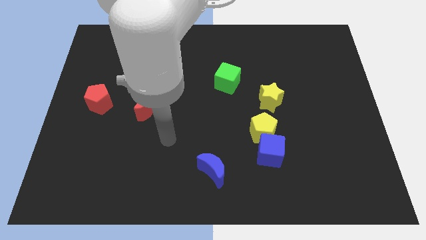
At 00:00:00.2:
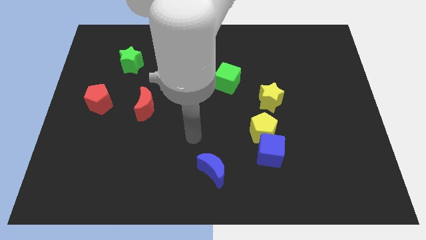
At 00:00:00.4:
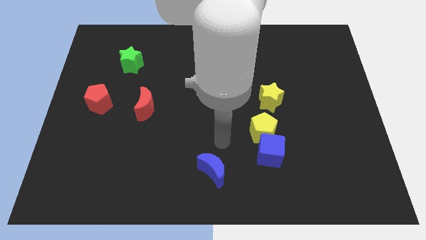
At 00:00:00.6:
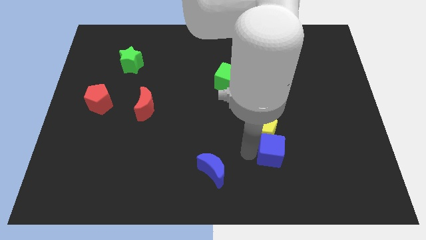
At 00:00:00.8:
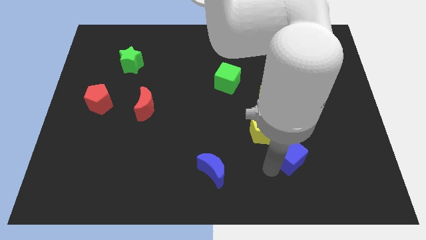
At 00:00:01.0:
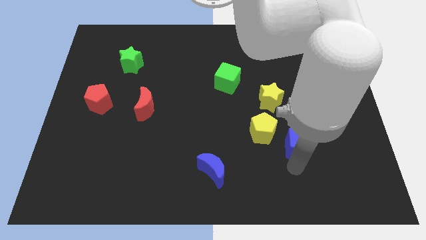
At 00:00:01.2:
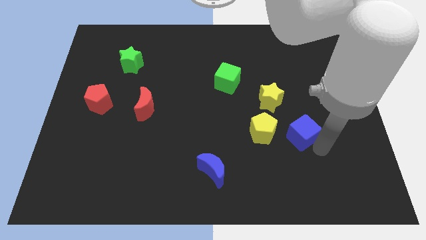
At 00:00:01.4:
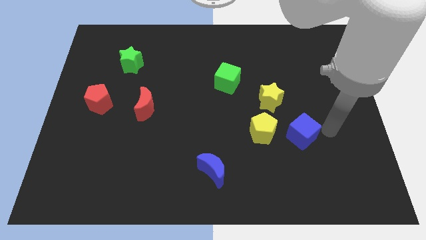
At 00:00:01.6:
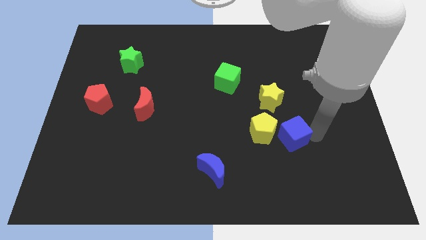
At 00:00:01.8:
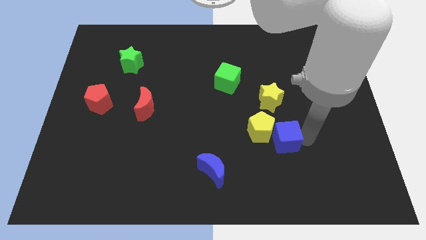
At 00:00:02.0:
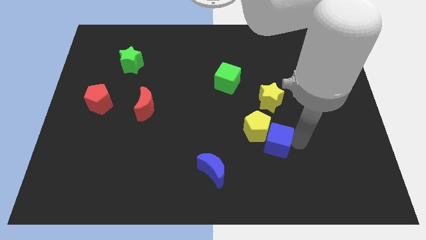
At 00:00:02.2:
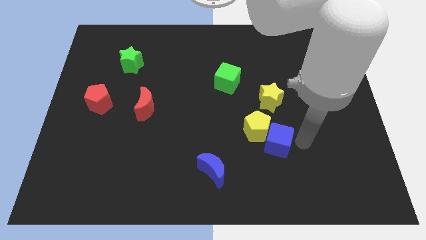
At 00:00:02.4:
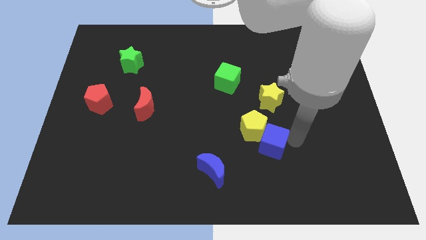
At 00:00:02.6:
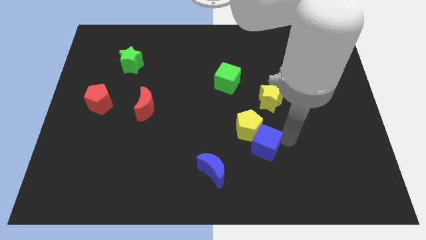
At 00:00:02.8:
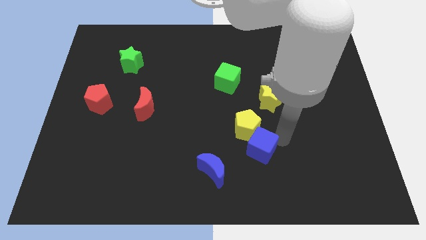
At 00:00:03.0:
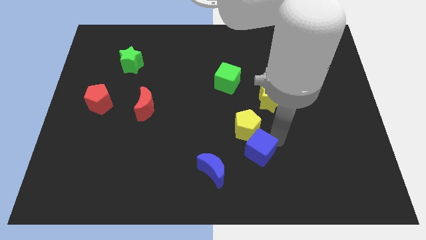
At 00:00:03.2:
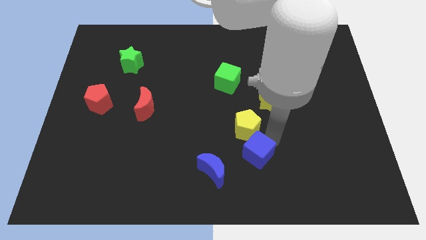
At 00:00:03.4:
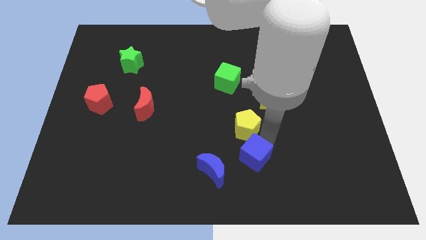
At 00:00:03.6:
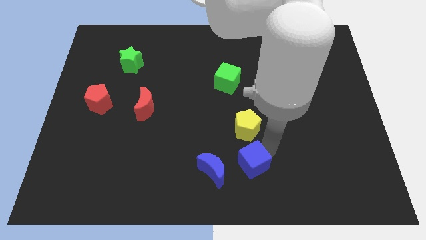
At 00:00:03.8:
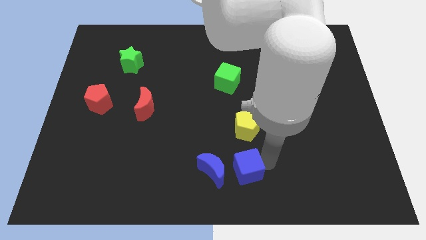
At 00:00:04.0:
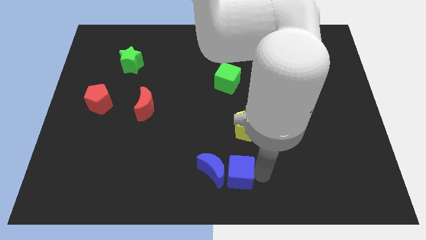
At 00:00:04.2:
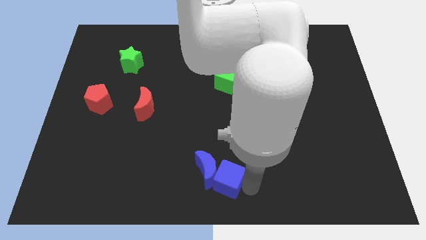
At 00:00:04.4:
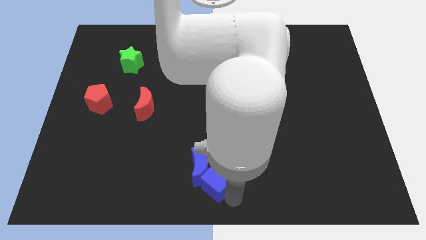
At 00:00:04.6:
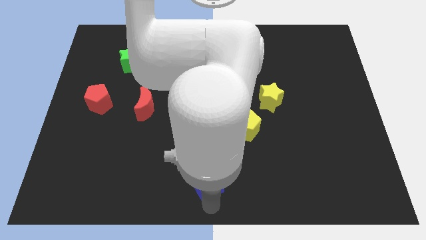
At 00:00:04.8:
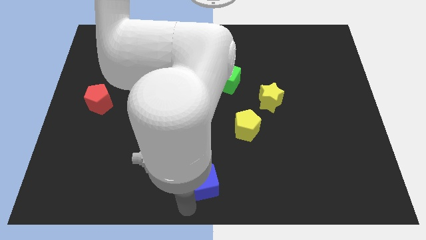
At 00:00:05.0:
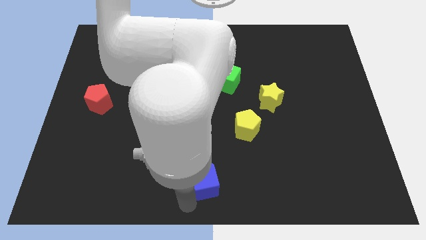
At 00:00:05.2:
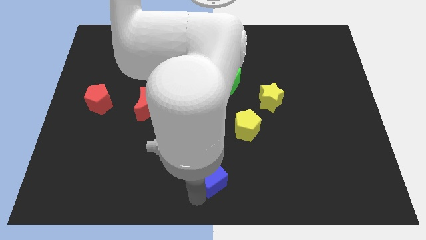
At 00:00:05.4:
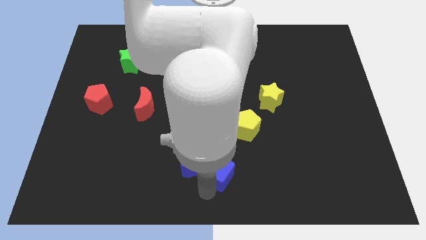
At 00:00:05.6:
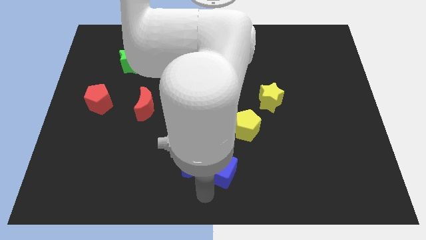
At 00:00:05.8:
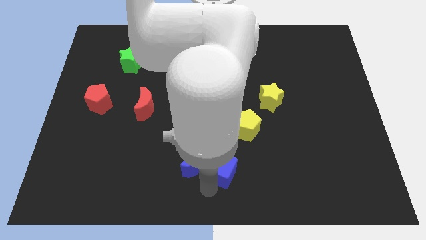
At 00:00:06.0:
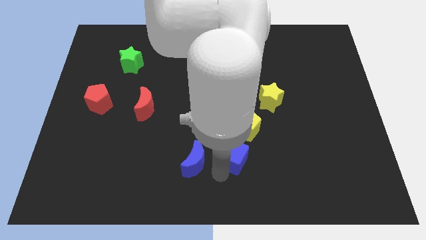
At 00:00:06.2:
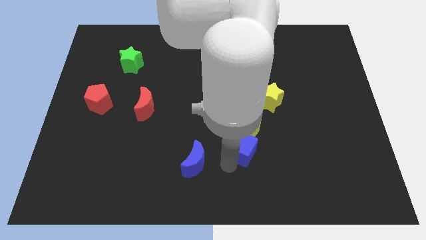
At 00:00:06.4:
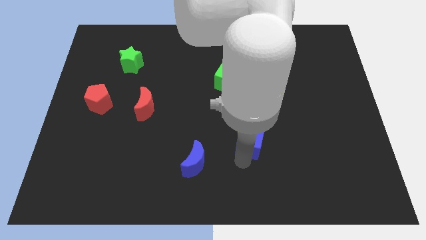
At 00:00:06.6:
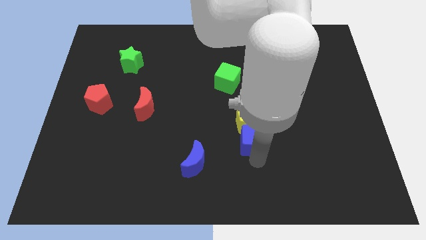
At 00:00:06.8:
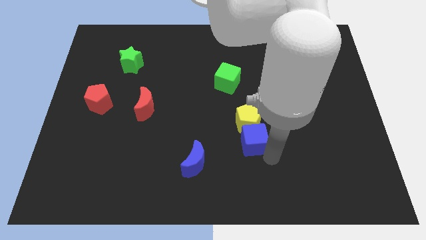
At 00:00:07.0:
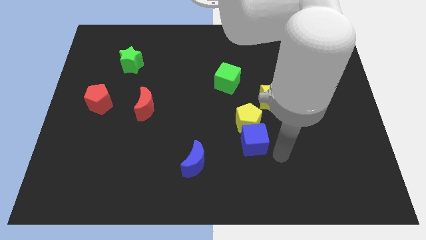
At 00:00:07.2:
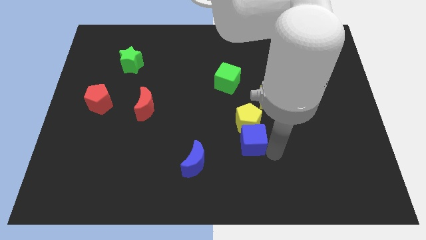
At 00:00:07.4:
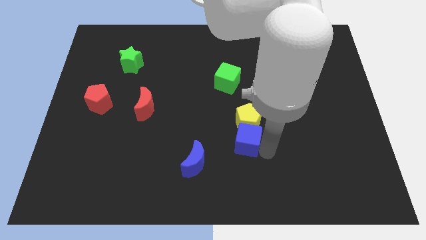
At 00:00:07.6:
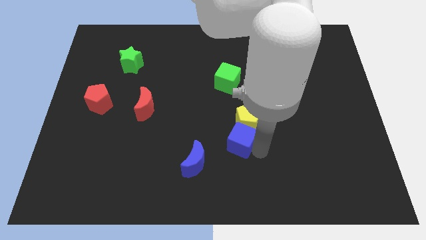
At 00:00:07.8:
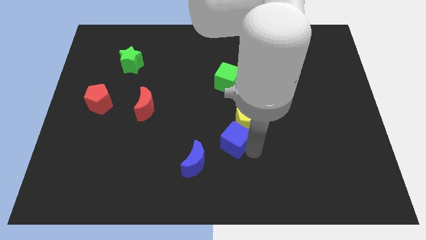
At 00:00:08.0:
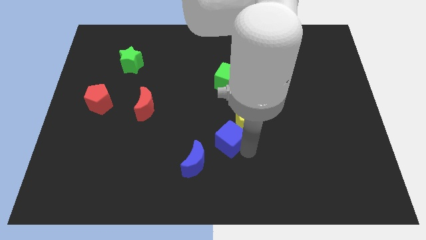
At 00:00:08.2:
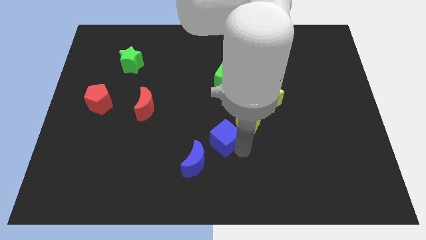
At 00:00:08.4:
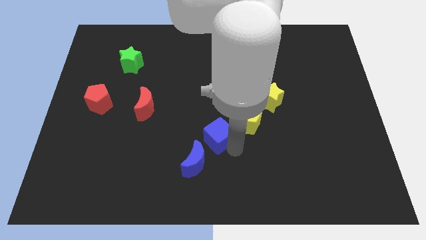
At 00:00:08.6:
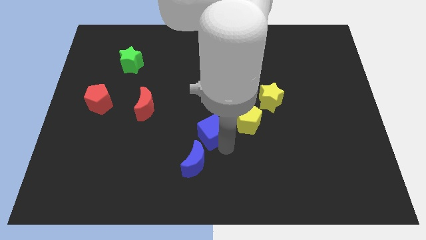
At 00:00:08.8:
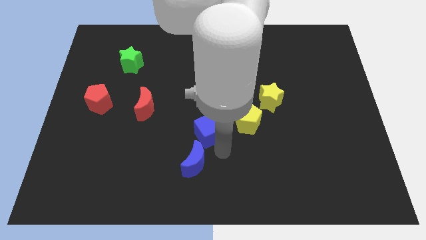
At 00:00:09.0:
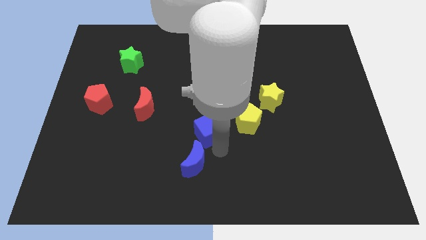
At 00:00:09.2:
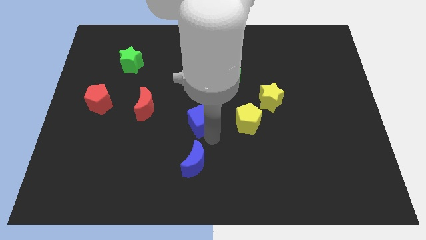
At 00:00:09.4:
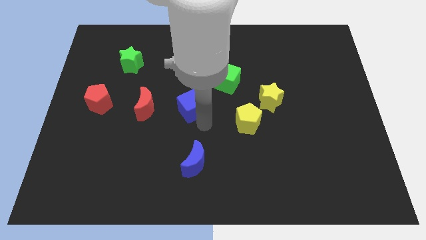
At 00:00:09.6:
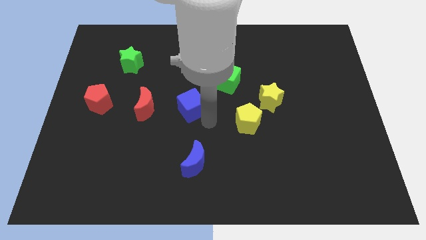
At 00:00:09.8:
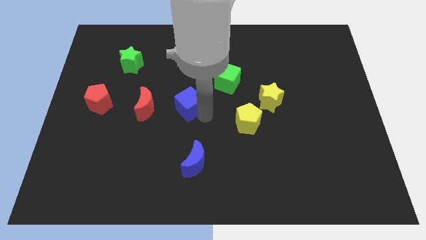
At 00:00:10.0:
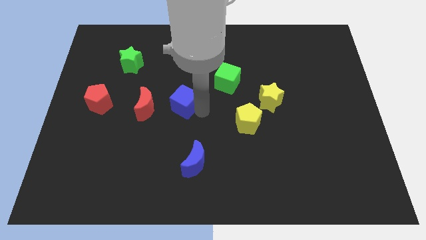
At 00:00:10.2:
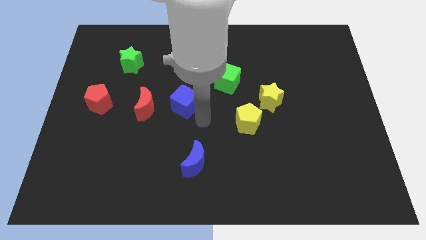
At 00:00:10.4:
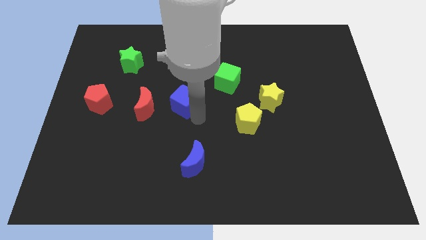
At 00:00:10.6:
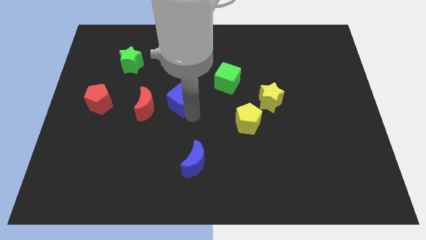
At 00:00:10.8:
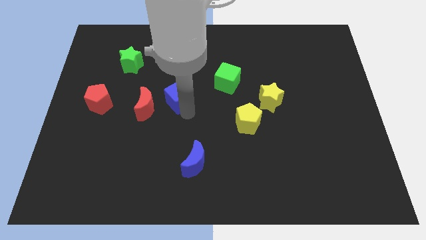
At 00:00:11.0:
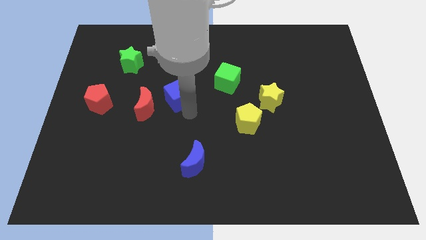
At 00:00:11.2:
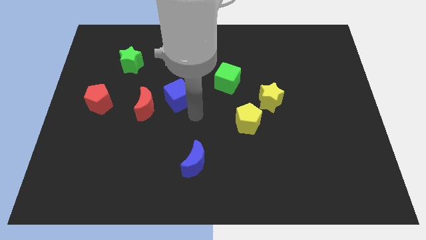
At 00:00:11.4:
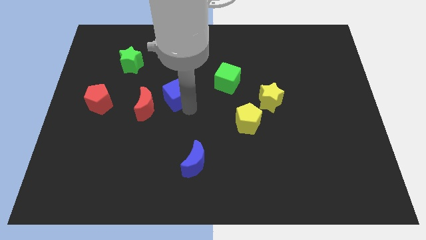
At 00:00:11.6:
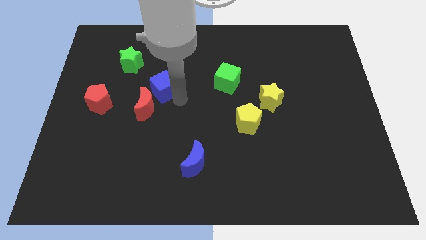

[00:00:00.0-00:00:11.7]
move the blue cube above the red moon

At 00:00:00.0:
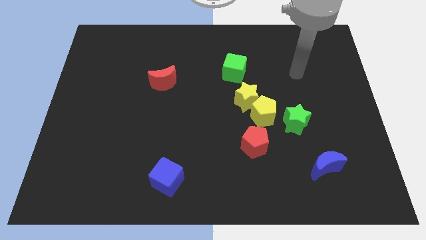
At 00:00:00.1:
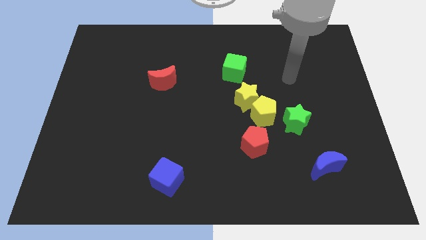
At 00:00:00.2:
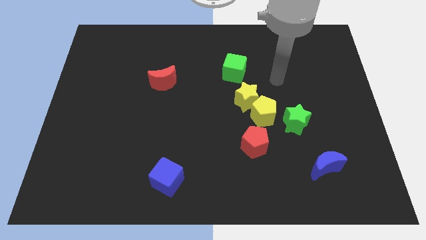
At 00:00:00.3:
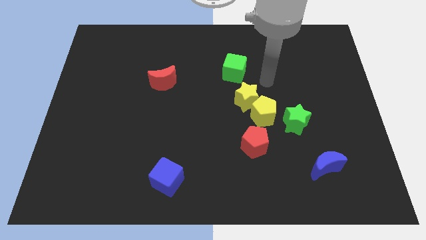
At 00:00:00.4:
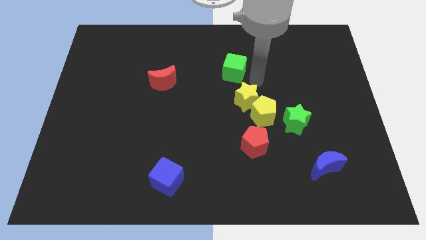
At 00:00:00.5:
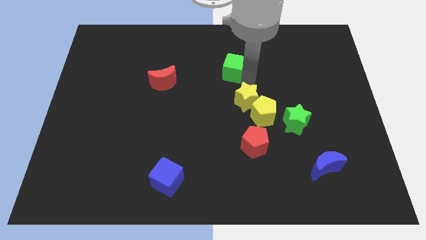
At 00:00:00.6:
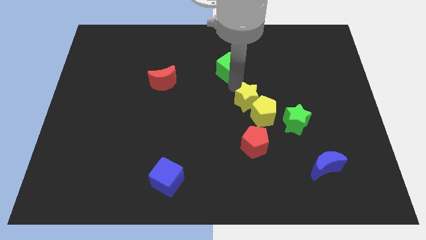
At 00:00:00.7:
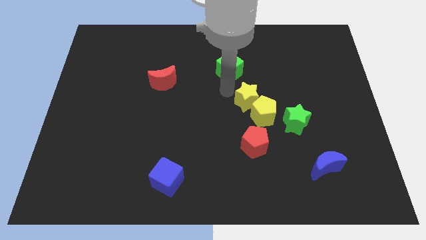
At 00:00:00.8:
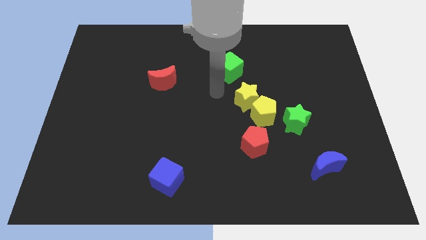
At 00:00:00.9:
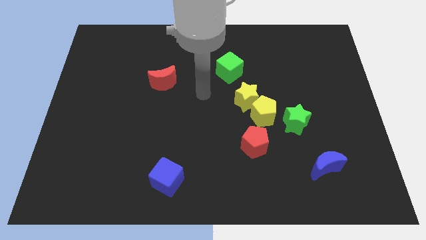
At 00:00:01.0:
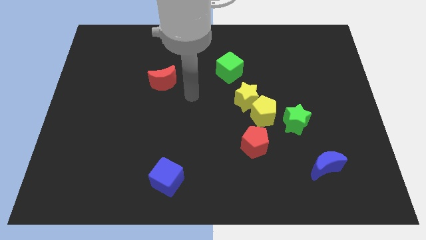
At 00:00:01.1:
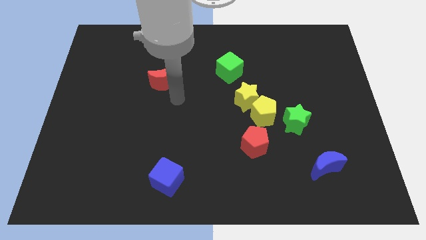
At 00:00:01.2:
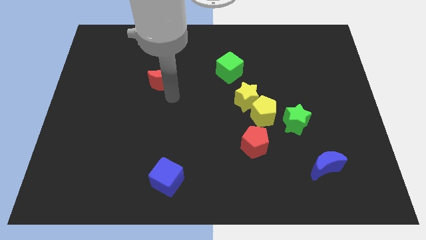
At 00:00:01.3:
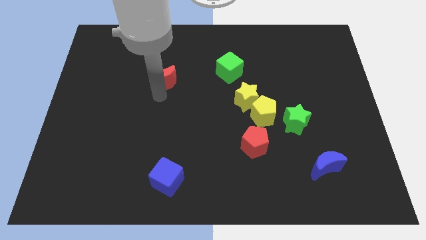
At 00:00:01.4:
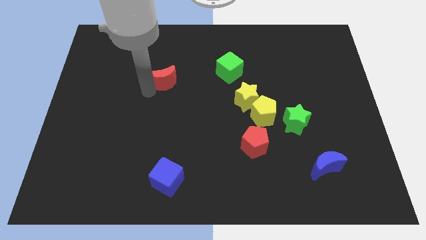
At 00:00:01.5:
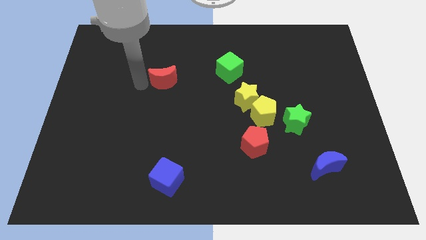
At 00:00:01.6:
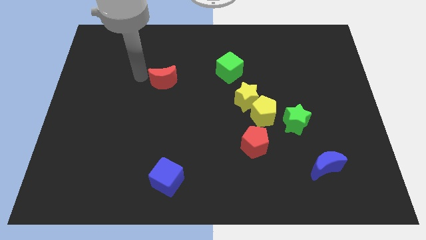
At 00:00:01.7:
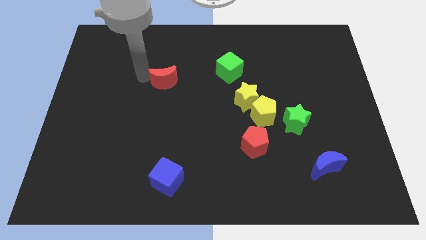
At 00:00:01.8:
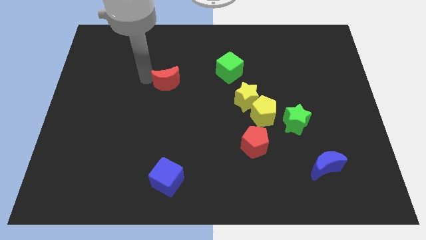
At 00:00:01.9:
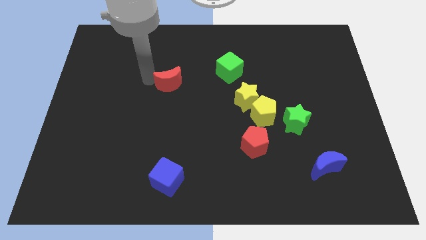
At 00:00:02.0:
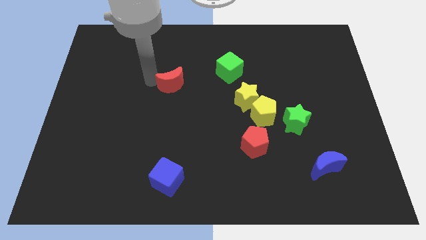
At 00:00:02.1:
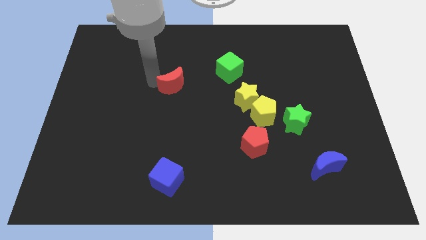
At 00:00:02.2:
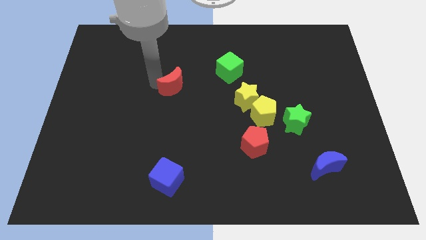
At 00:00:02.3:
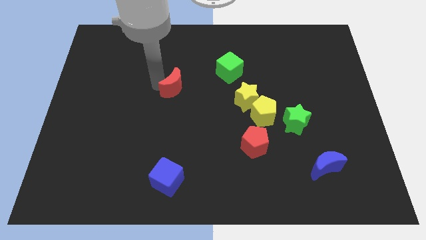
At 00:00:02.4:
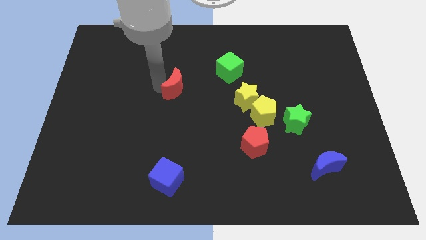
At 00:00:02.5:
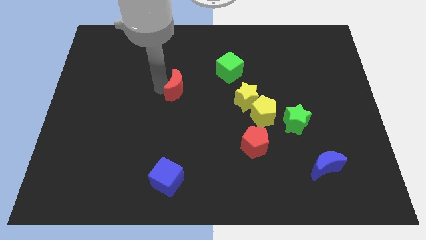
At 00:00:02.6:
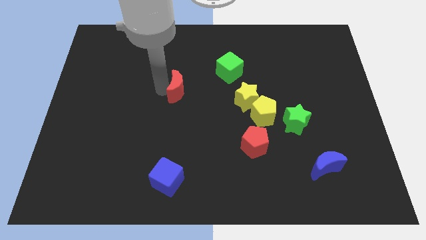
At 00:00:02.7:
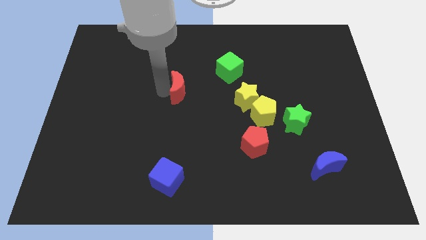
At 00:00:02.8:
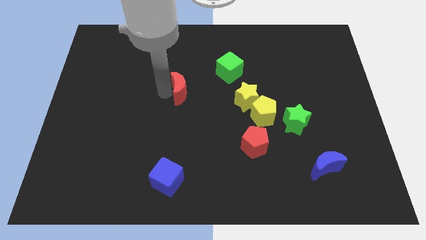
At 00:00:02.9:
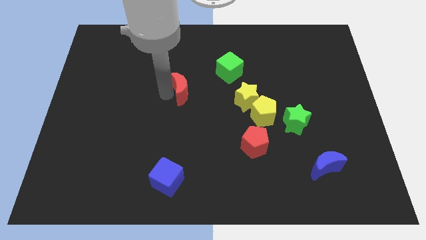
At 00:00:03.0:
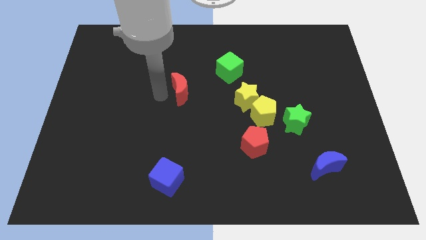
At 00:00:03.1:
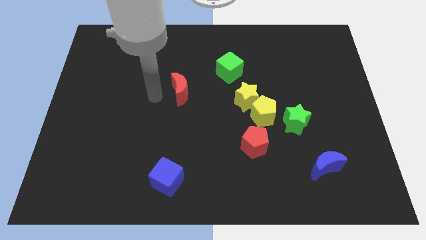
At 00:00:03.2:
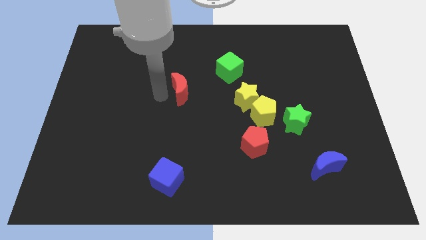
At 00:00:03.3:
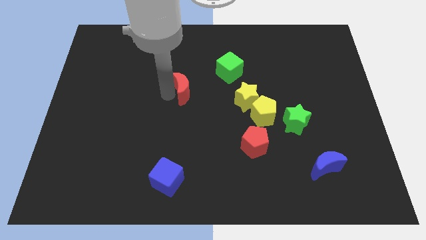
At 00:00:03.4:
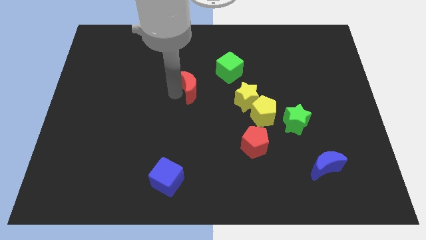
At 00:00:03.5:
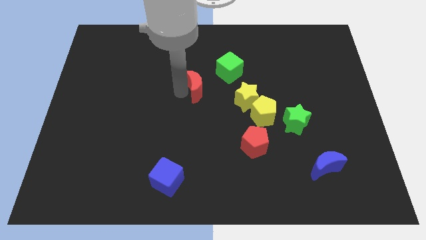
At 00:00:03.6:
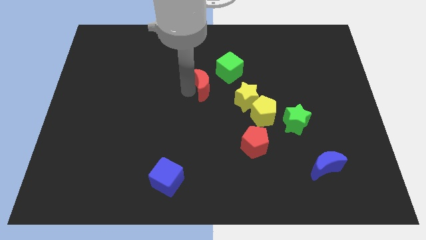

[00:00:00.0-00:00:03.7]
push the red moon diagonally up and to the left of the yellow star
